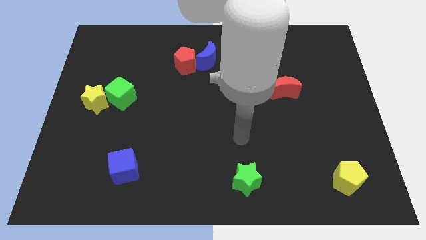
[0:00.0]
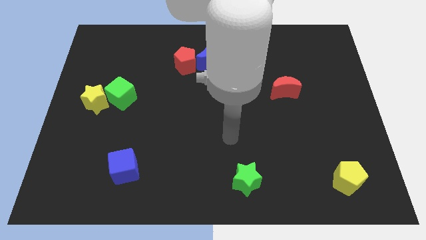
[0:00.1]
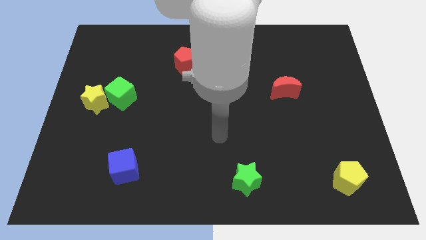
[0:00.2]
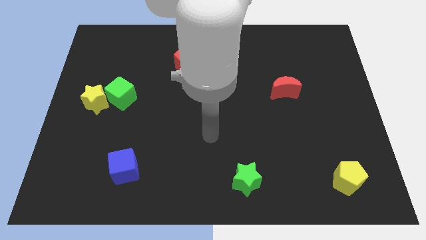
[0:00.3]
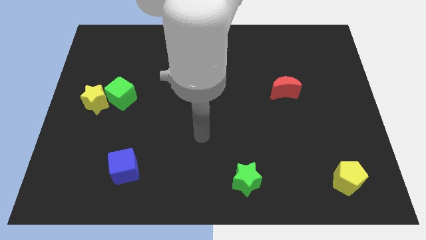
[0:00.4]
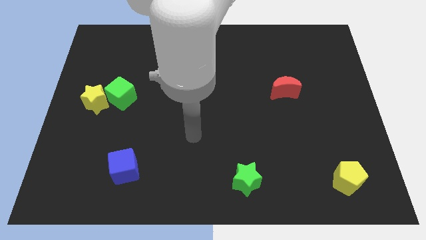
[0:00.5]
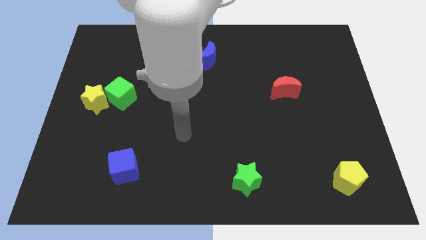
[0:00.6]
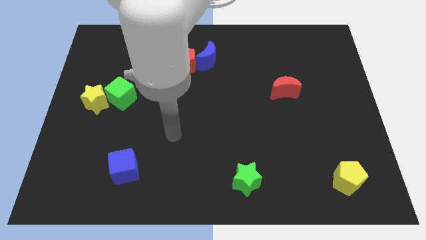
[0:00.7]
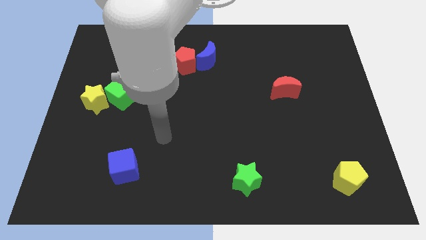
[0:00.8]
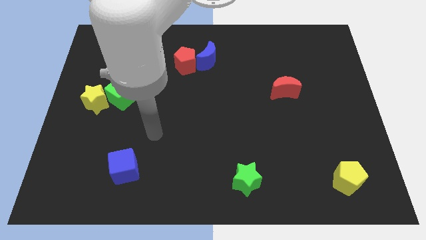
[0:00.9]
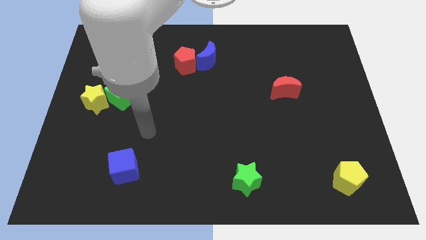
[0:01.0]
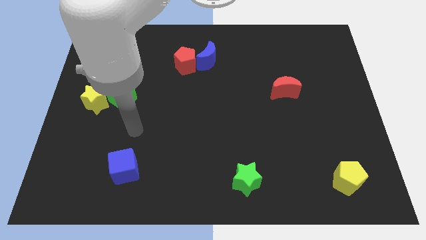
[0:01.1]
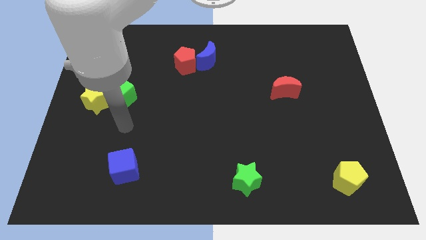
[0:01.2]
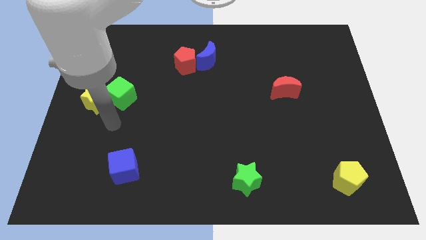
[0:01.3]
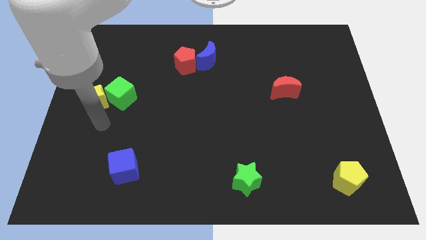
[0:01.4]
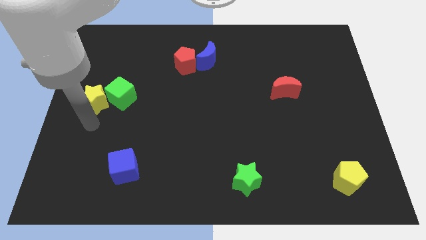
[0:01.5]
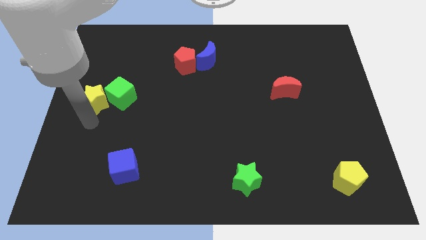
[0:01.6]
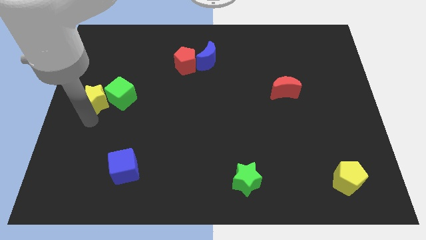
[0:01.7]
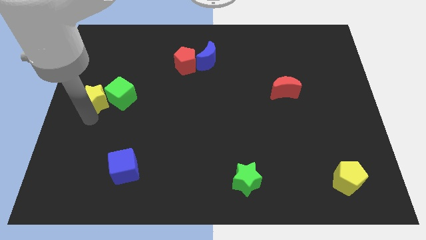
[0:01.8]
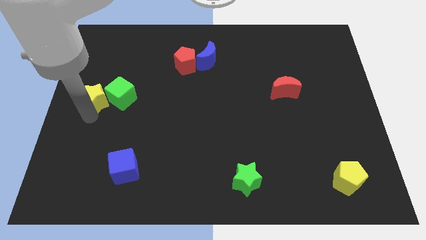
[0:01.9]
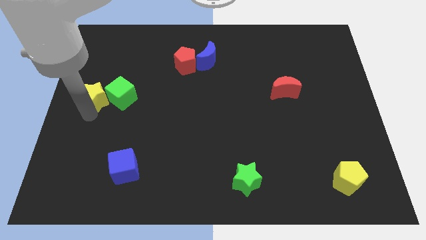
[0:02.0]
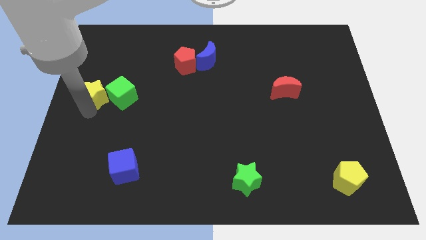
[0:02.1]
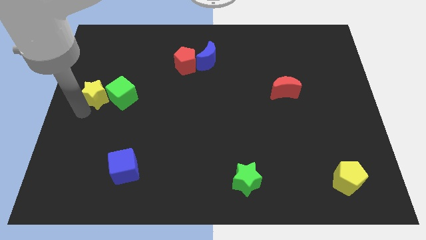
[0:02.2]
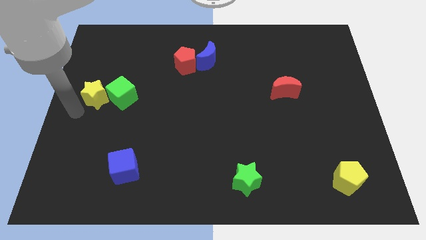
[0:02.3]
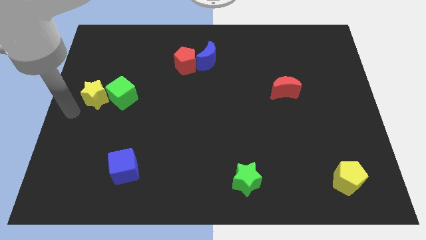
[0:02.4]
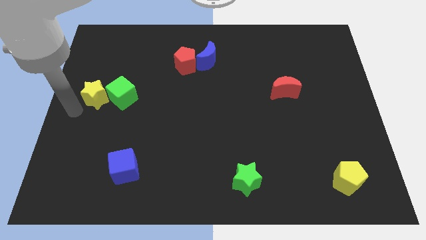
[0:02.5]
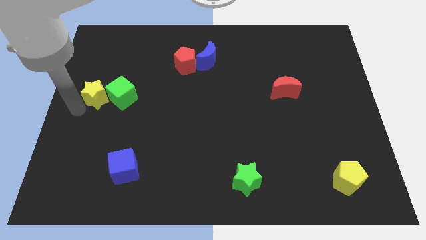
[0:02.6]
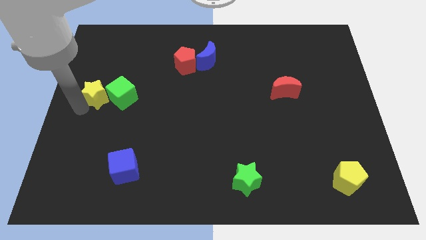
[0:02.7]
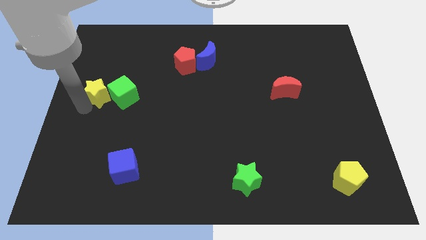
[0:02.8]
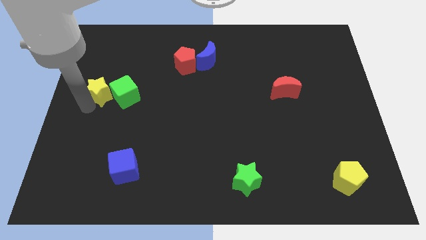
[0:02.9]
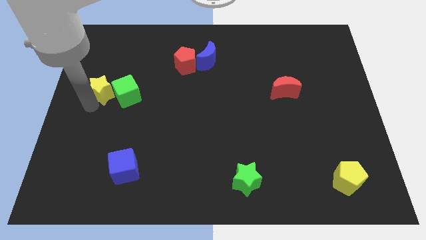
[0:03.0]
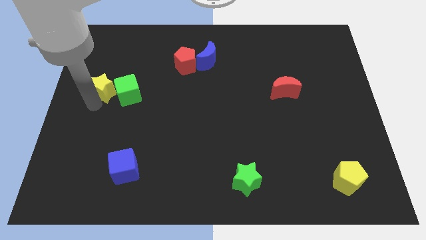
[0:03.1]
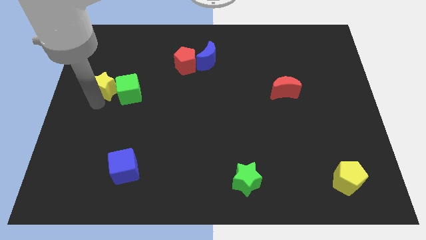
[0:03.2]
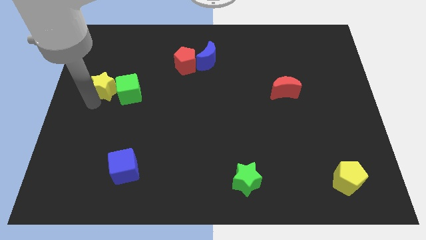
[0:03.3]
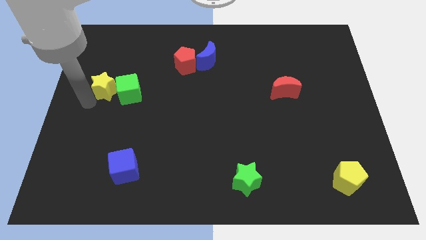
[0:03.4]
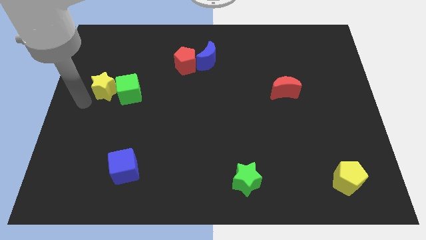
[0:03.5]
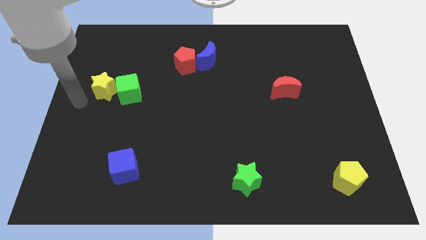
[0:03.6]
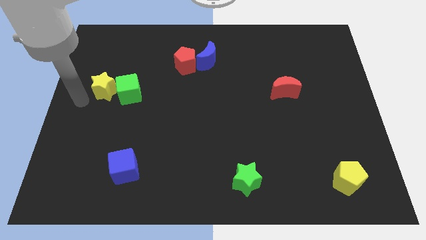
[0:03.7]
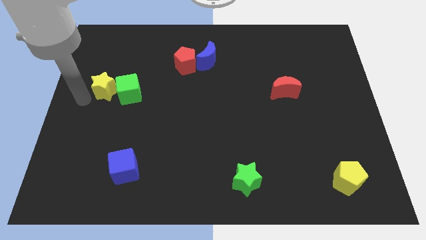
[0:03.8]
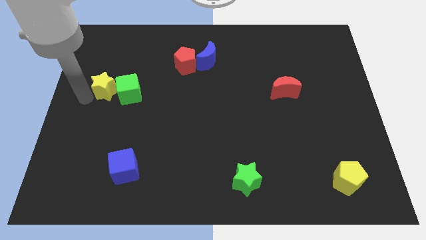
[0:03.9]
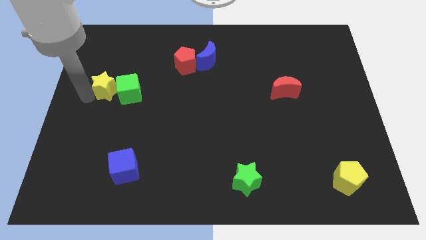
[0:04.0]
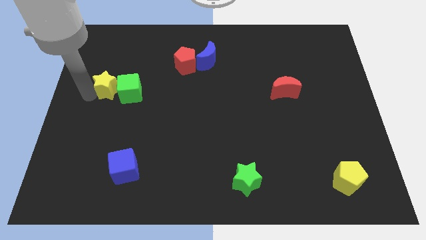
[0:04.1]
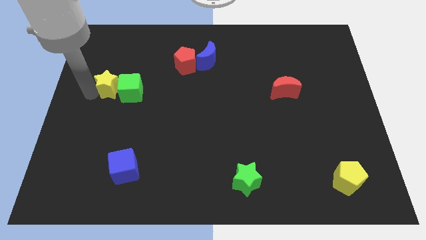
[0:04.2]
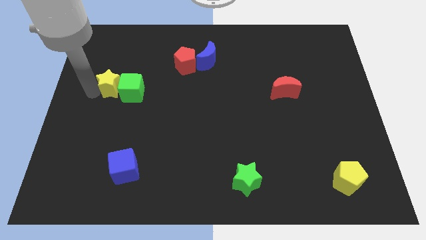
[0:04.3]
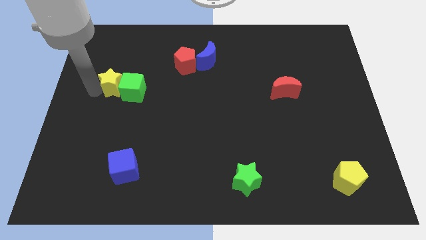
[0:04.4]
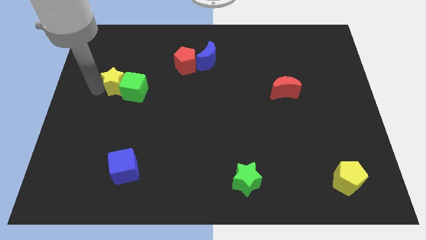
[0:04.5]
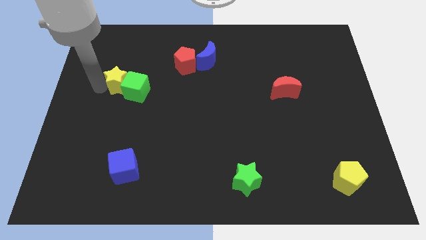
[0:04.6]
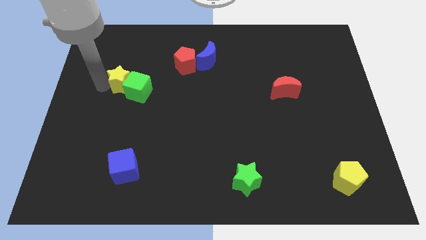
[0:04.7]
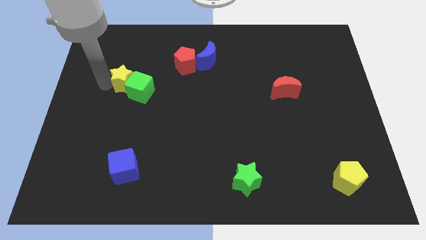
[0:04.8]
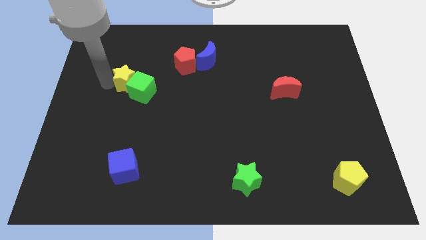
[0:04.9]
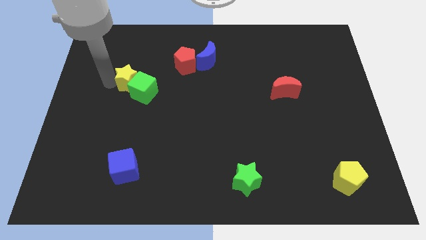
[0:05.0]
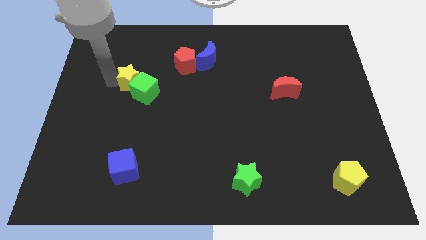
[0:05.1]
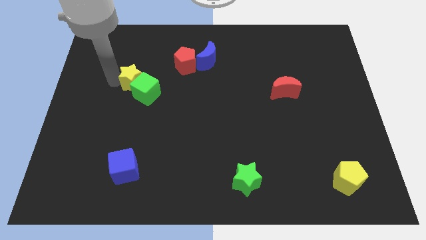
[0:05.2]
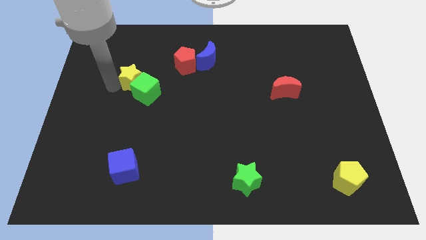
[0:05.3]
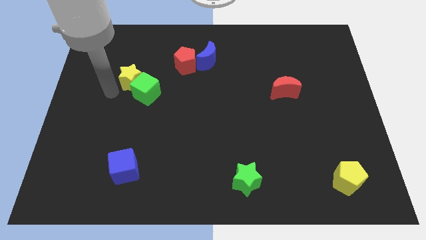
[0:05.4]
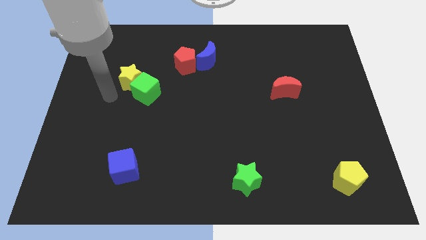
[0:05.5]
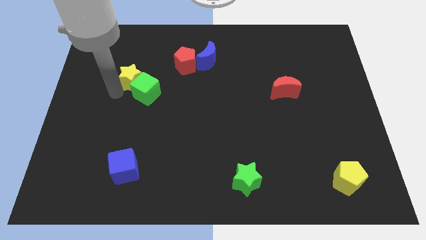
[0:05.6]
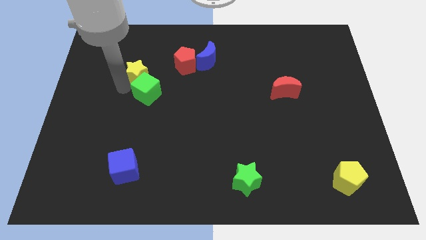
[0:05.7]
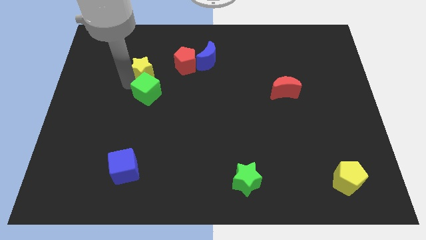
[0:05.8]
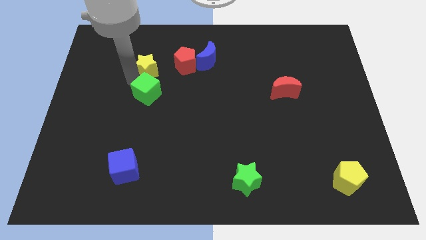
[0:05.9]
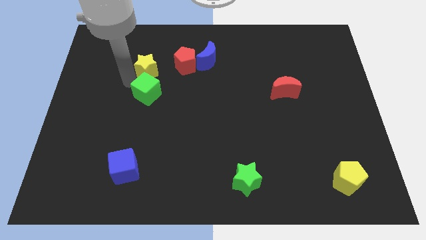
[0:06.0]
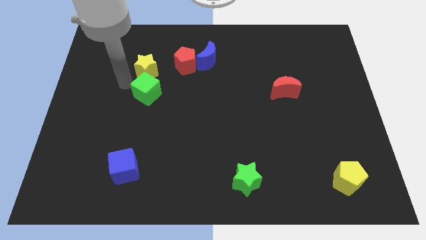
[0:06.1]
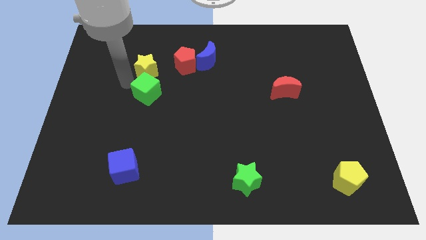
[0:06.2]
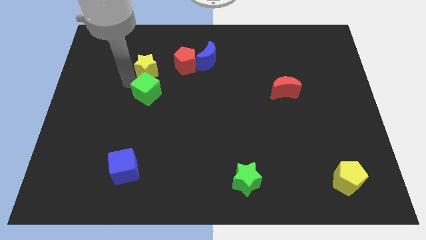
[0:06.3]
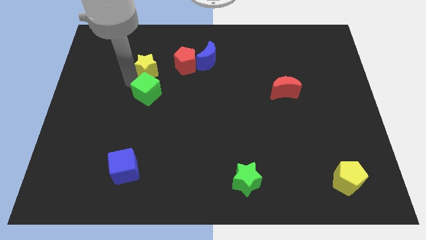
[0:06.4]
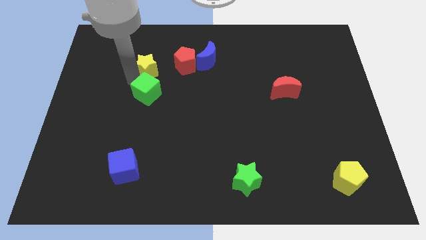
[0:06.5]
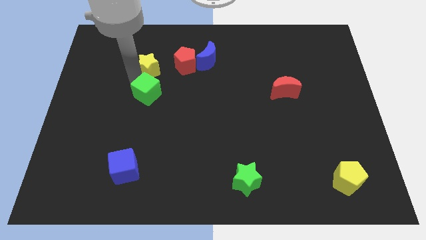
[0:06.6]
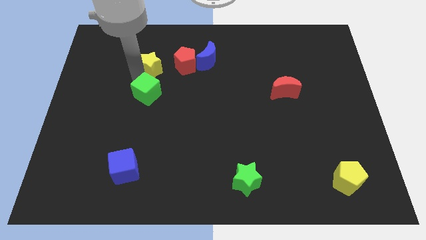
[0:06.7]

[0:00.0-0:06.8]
move the yellow star to the left of the blue moon

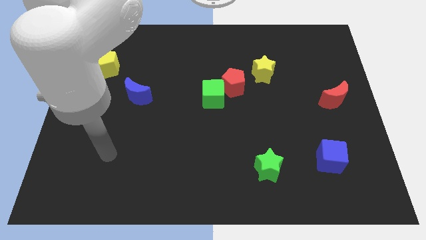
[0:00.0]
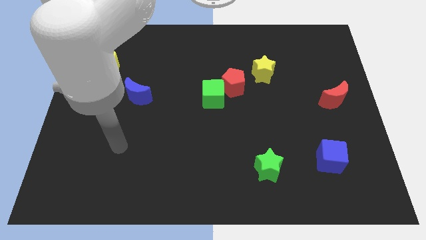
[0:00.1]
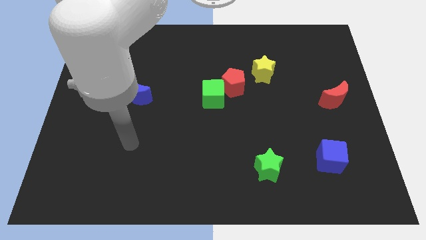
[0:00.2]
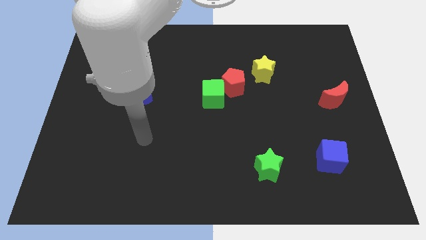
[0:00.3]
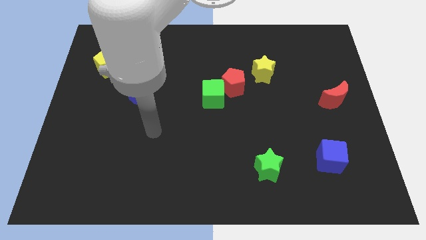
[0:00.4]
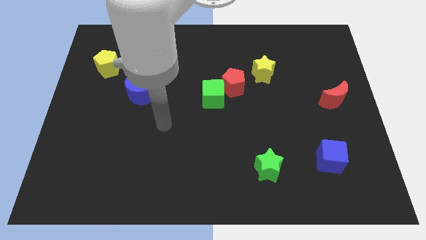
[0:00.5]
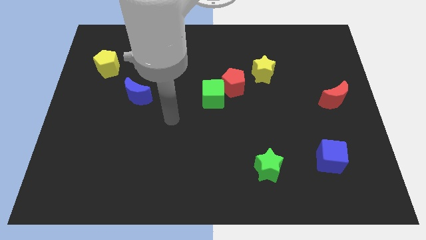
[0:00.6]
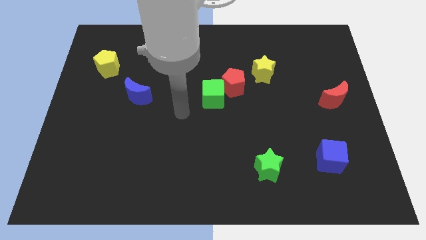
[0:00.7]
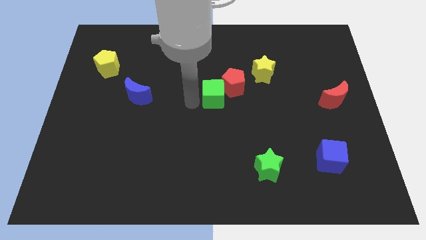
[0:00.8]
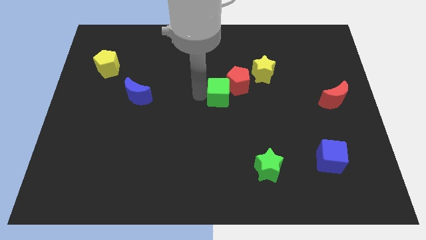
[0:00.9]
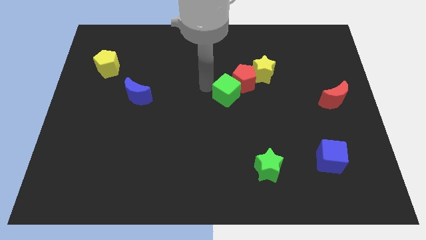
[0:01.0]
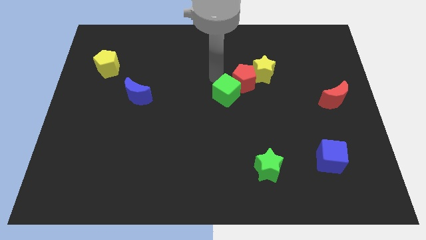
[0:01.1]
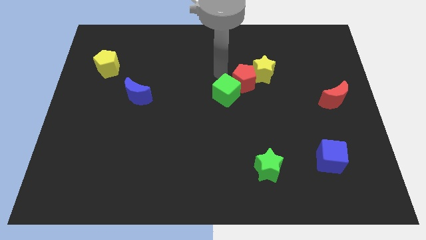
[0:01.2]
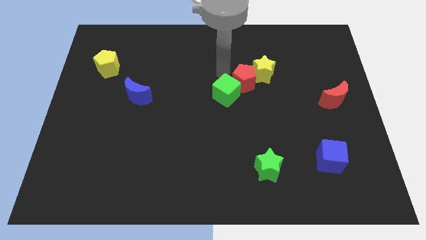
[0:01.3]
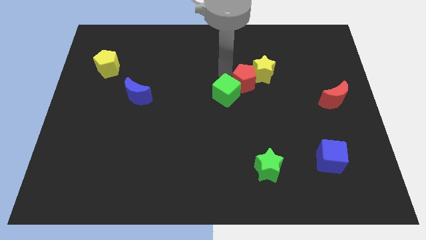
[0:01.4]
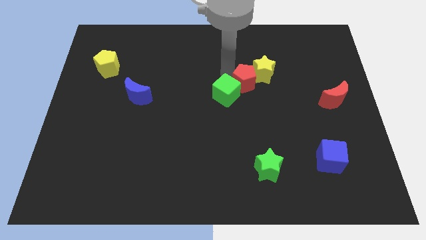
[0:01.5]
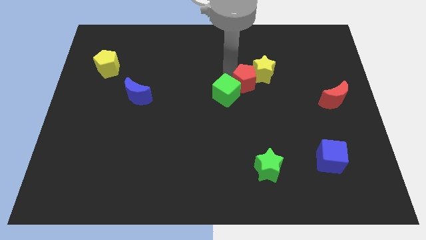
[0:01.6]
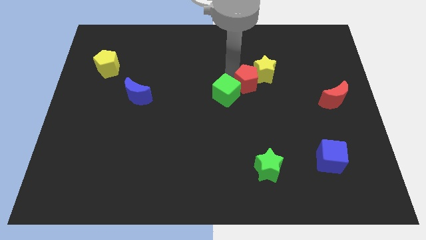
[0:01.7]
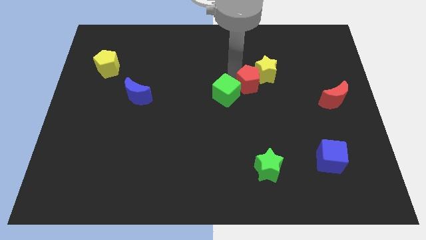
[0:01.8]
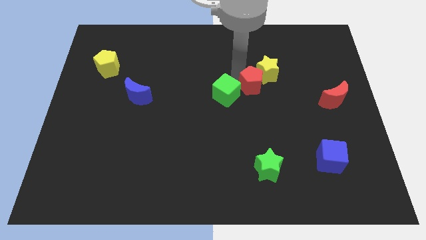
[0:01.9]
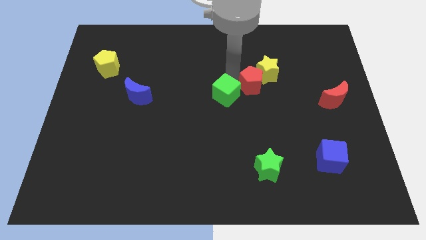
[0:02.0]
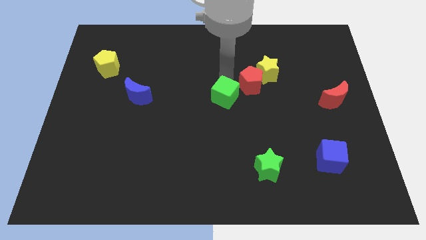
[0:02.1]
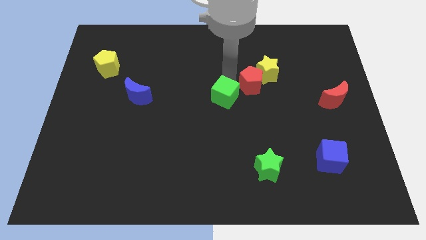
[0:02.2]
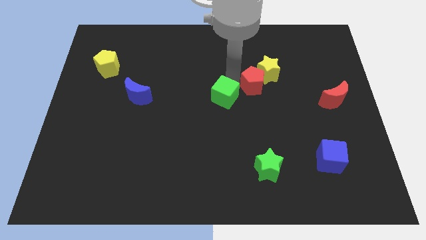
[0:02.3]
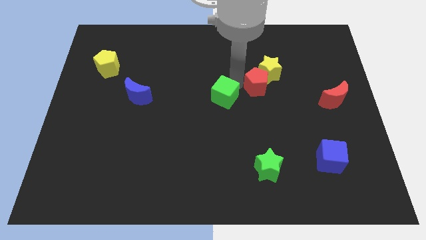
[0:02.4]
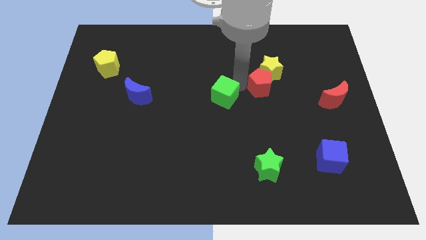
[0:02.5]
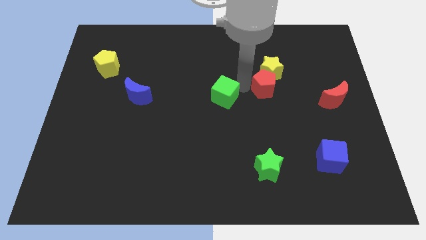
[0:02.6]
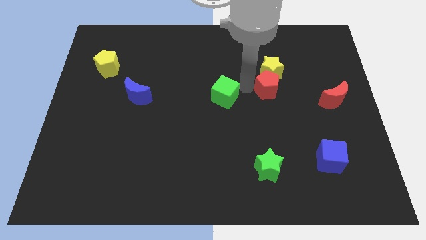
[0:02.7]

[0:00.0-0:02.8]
push the red pentagon to the bottom right side of the yellow star
